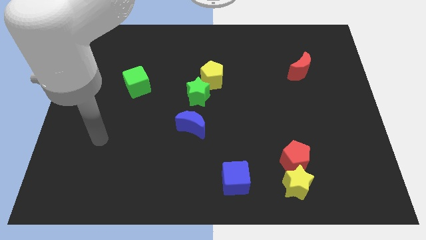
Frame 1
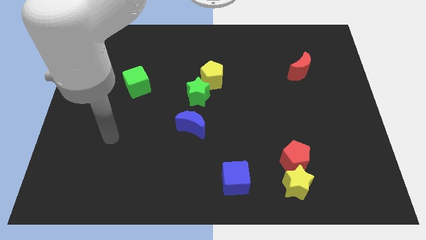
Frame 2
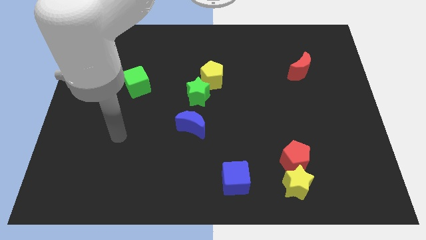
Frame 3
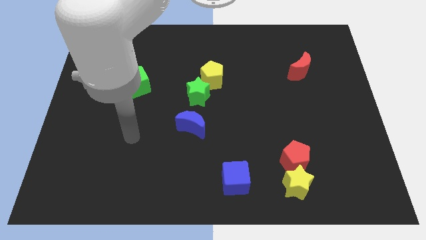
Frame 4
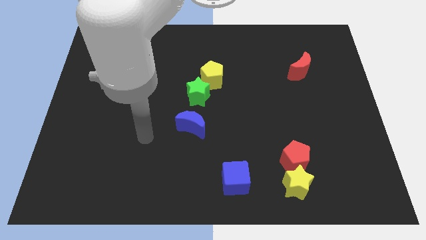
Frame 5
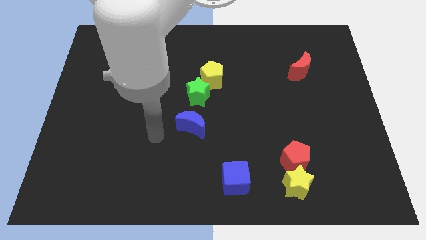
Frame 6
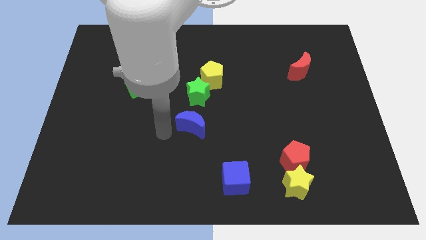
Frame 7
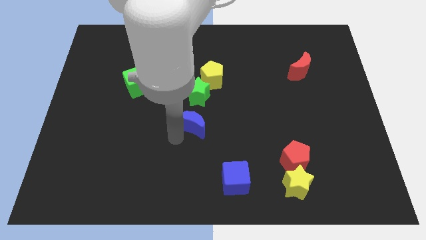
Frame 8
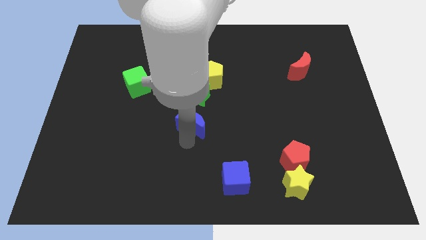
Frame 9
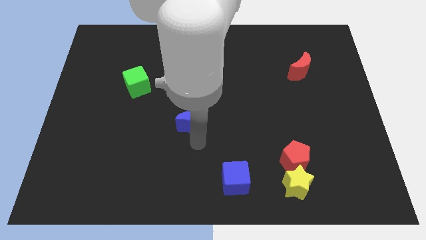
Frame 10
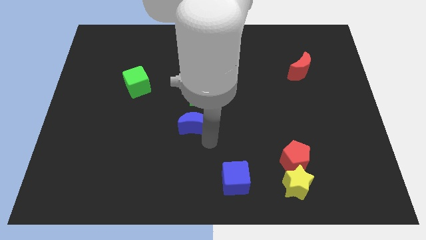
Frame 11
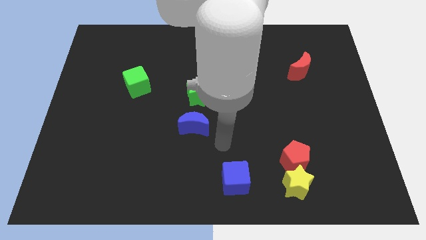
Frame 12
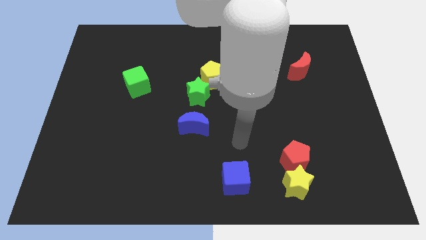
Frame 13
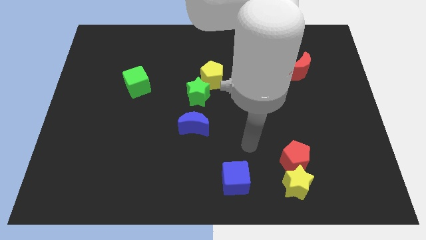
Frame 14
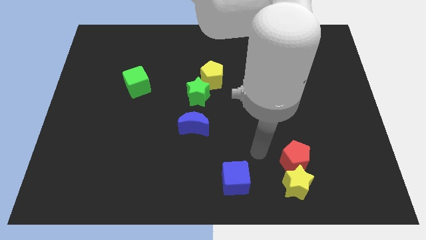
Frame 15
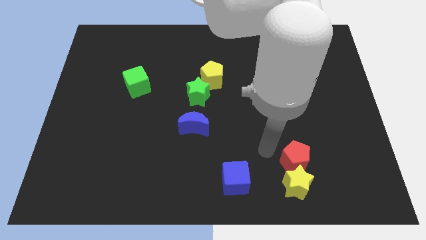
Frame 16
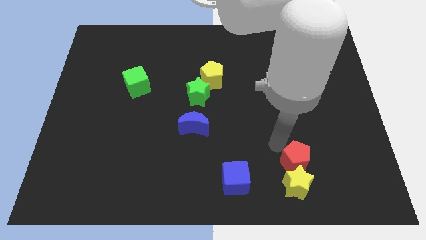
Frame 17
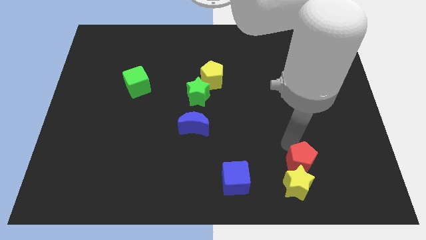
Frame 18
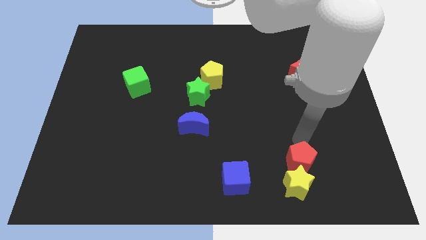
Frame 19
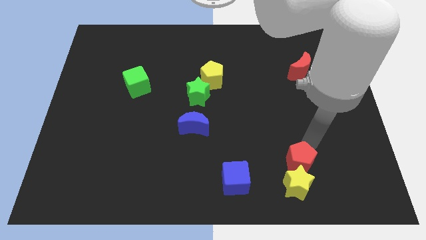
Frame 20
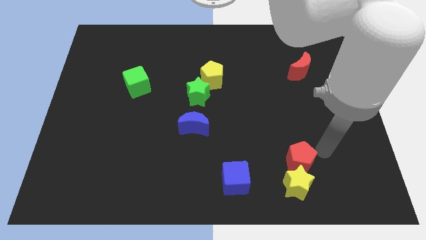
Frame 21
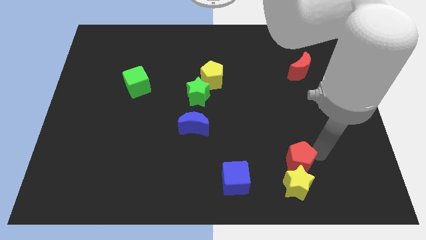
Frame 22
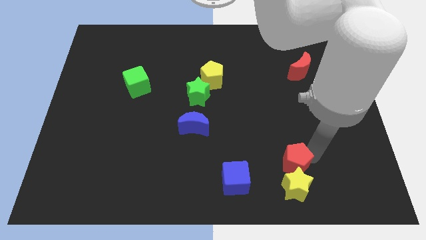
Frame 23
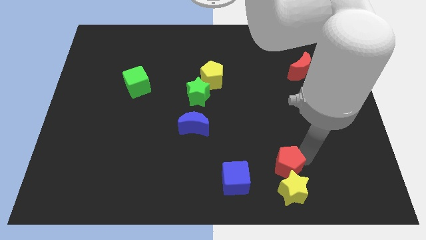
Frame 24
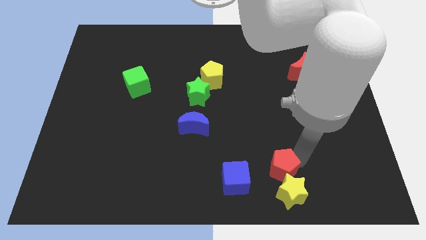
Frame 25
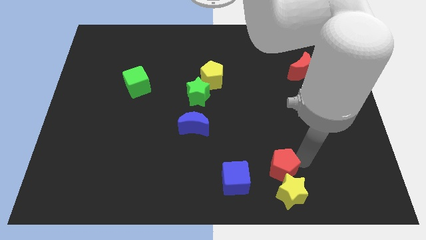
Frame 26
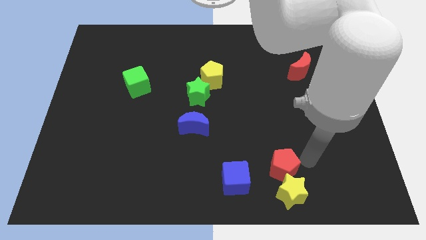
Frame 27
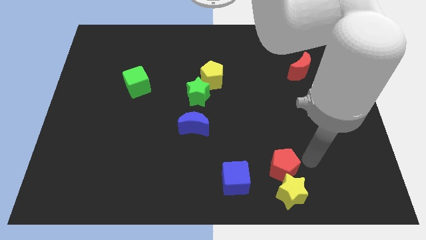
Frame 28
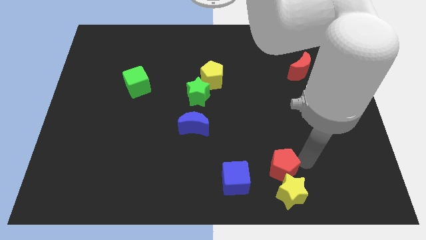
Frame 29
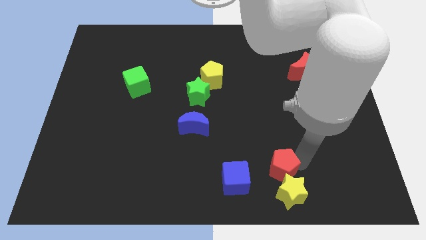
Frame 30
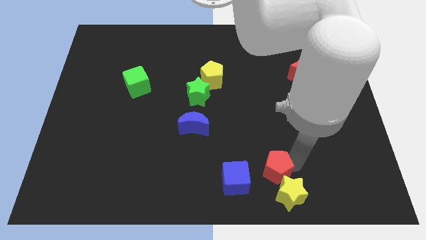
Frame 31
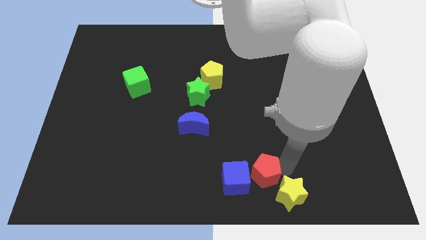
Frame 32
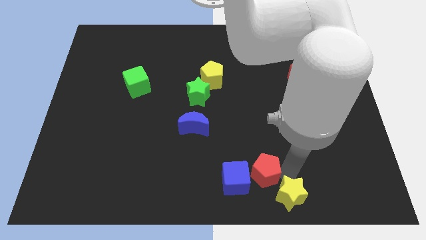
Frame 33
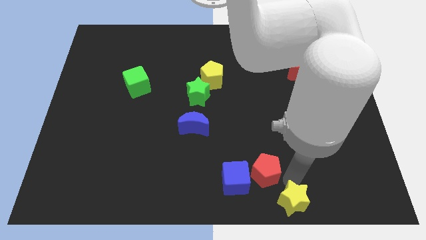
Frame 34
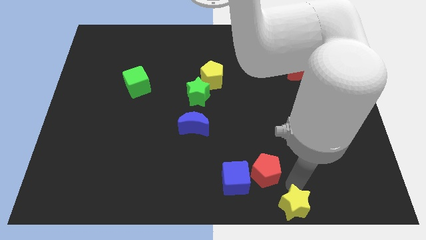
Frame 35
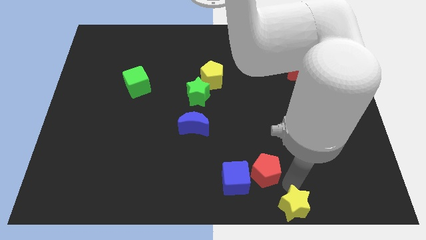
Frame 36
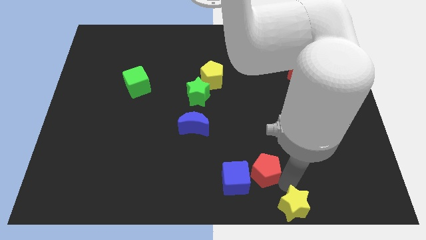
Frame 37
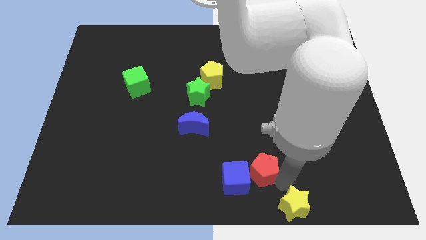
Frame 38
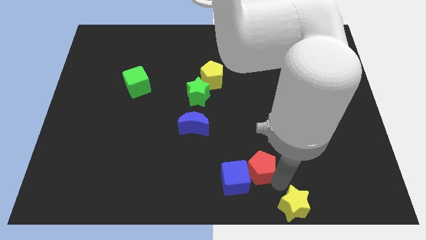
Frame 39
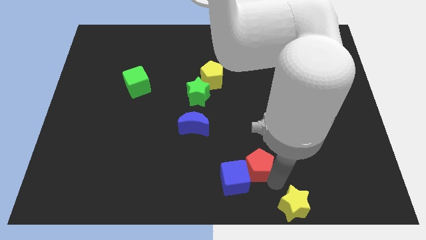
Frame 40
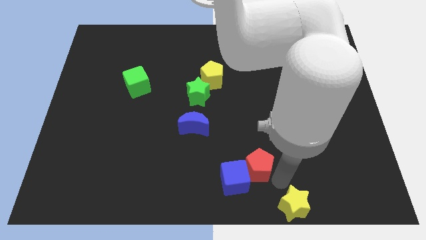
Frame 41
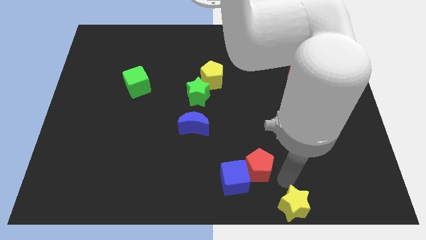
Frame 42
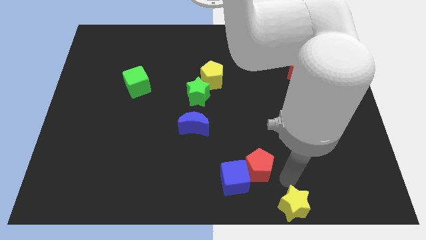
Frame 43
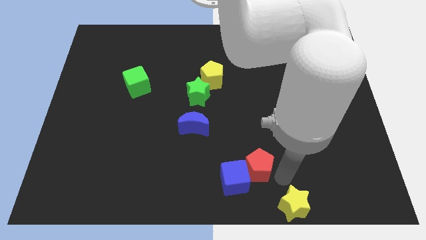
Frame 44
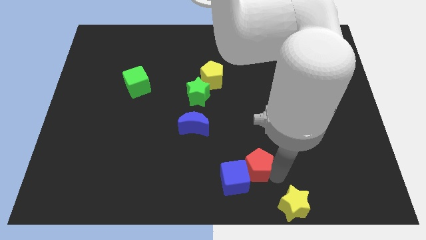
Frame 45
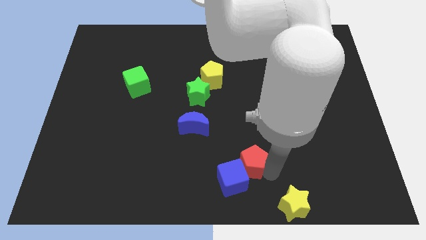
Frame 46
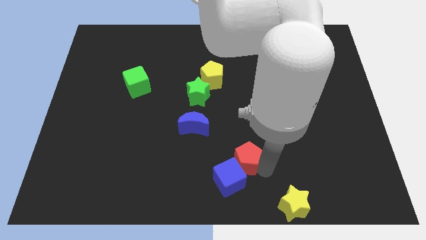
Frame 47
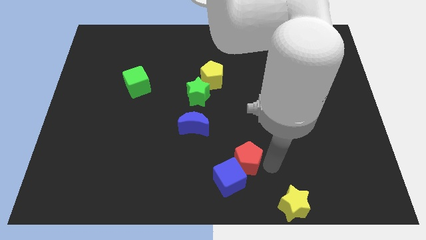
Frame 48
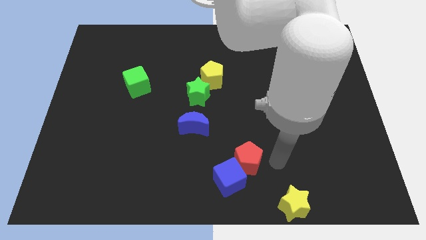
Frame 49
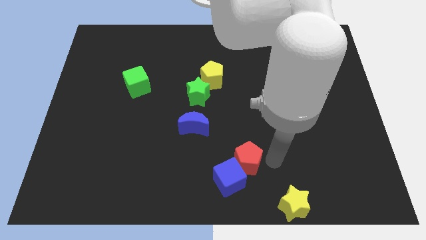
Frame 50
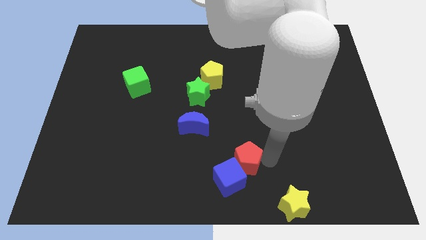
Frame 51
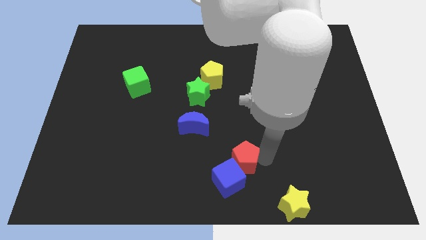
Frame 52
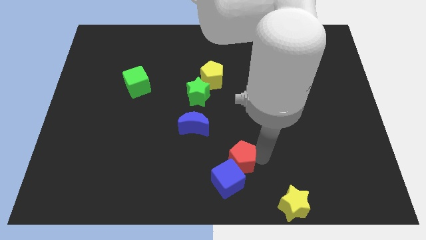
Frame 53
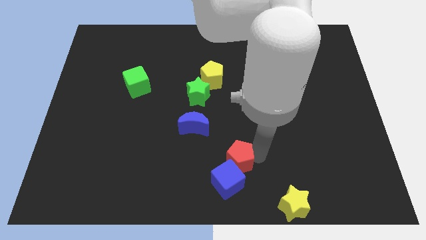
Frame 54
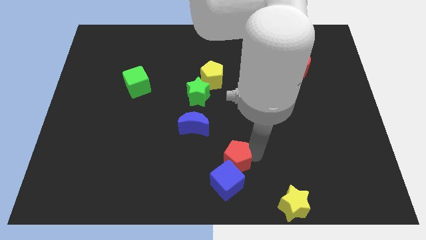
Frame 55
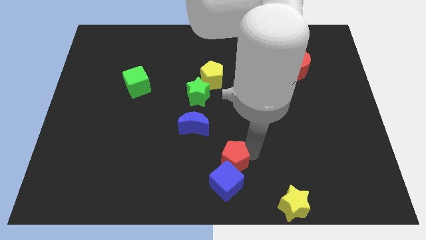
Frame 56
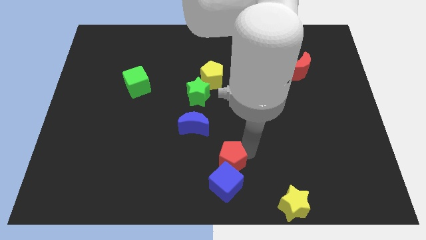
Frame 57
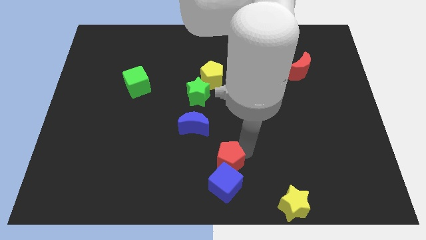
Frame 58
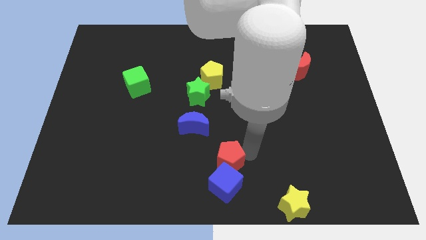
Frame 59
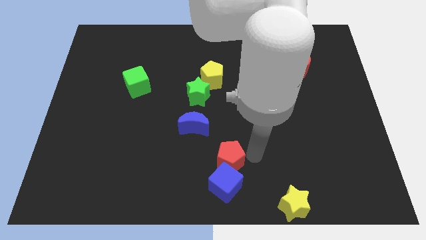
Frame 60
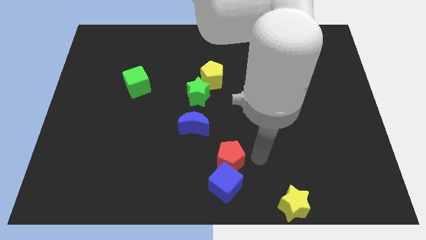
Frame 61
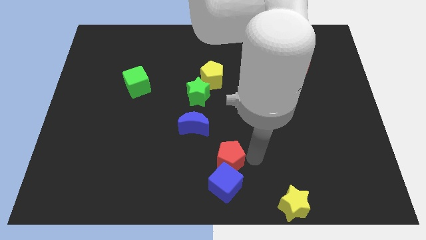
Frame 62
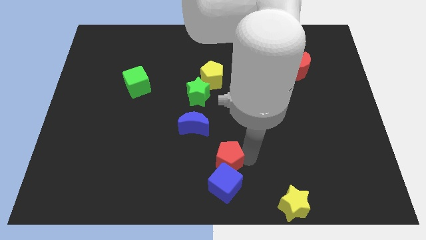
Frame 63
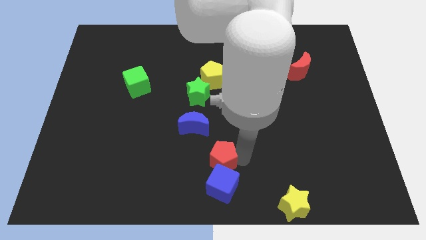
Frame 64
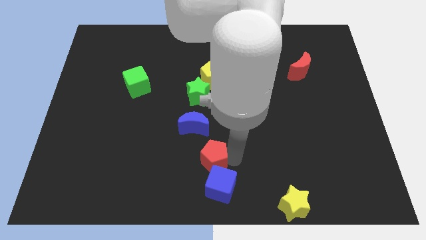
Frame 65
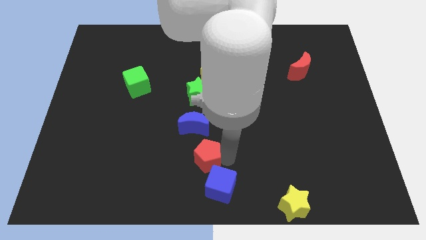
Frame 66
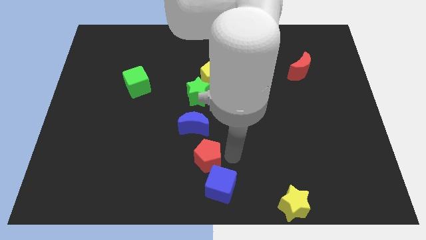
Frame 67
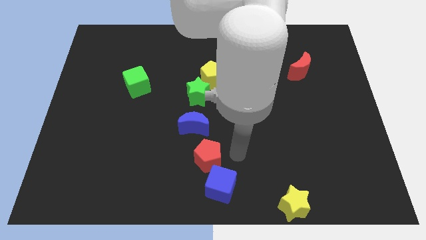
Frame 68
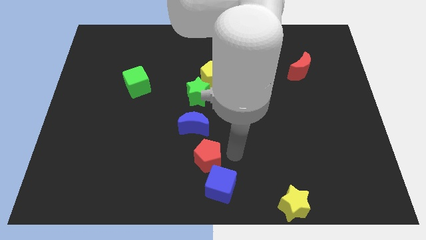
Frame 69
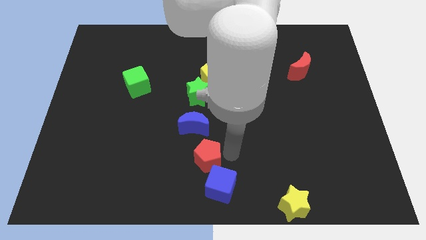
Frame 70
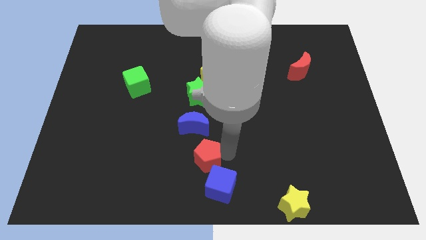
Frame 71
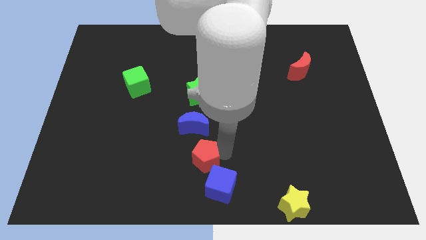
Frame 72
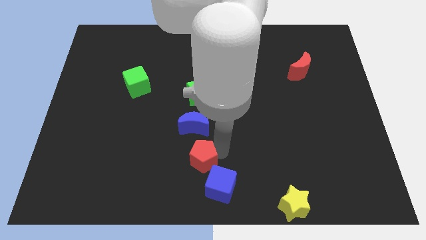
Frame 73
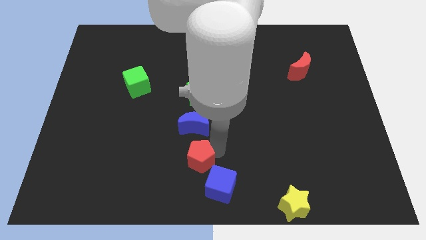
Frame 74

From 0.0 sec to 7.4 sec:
slide the red pentagon left

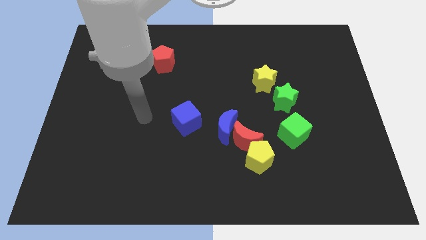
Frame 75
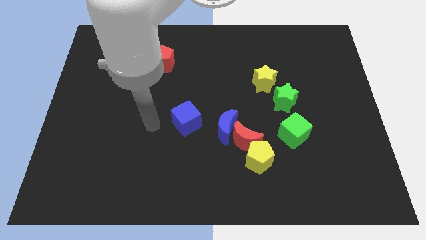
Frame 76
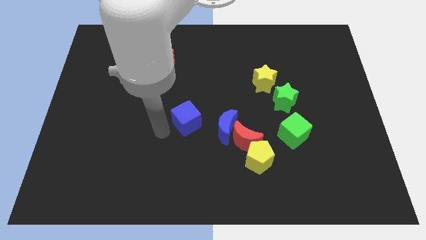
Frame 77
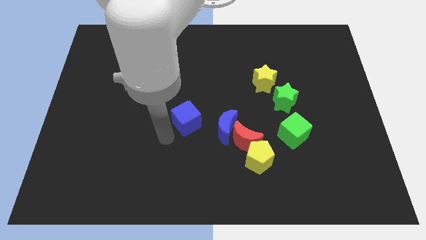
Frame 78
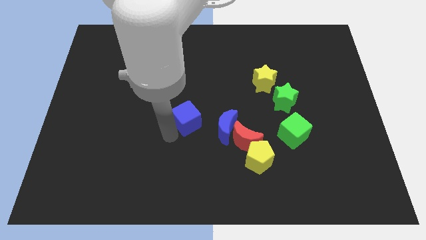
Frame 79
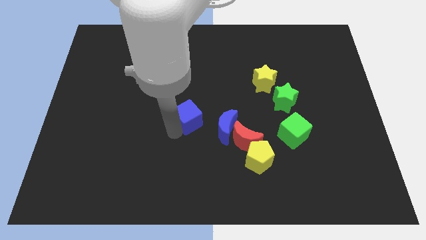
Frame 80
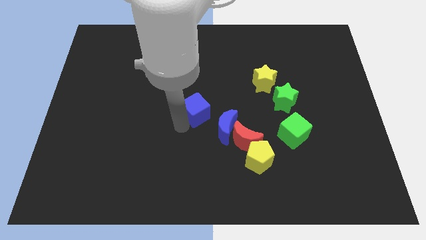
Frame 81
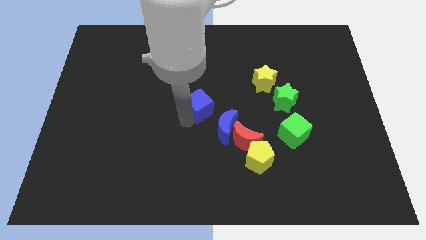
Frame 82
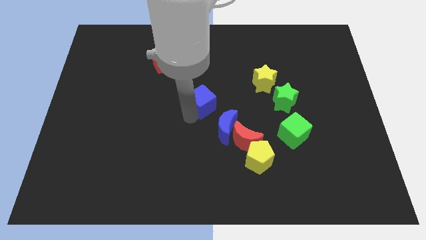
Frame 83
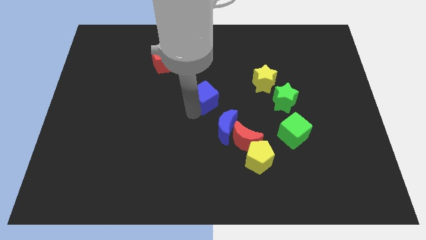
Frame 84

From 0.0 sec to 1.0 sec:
move the blue cube diagonally upwards and right a bit
